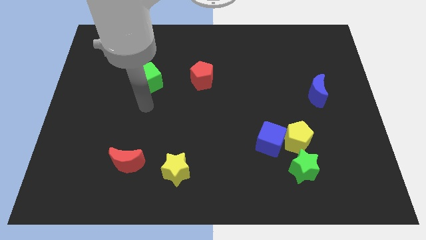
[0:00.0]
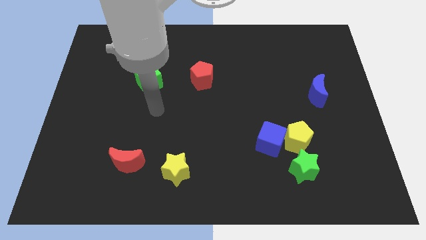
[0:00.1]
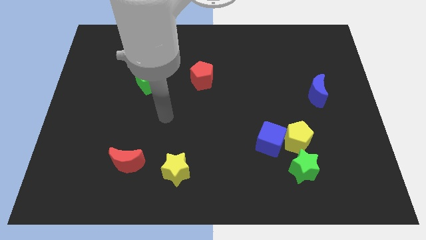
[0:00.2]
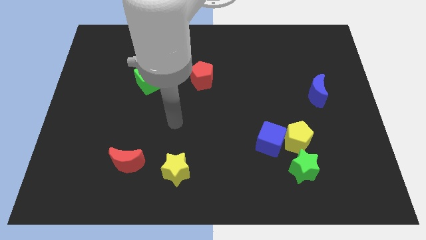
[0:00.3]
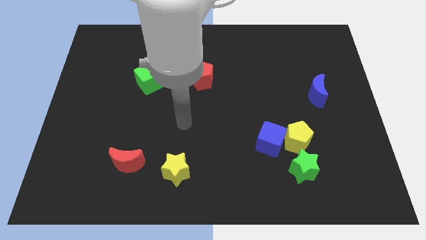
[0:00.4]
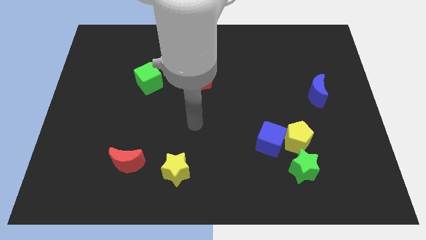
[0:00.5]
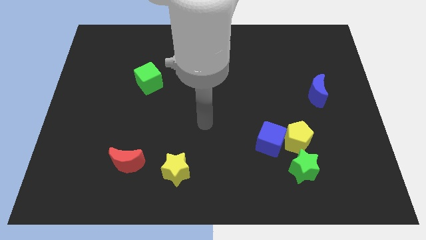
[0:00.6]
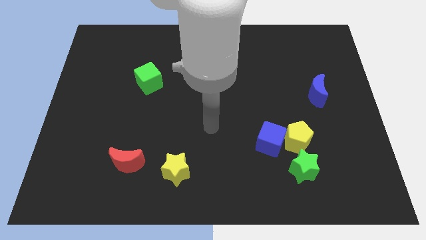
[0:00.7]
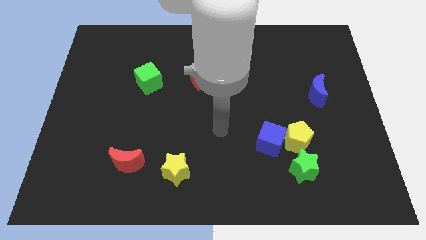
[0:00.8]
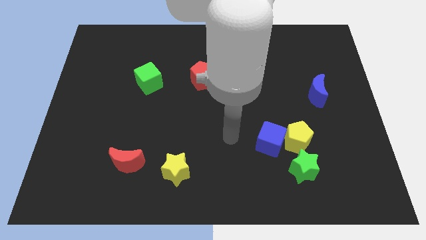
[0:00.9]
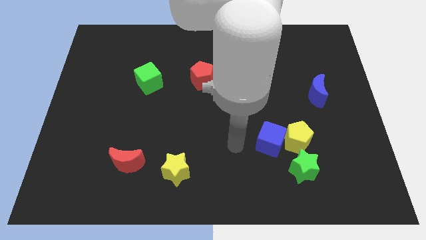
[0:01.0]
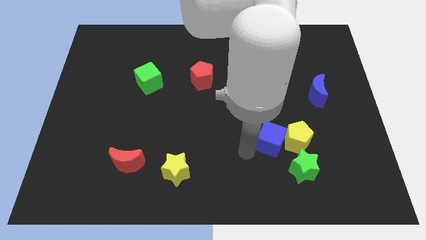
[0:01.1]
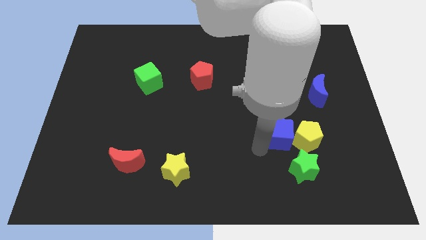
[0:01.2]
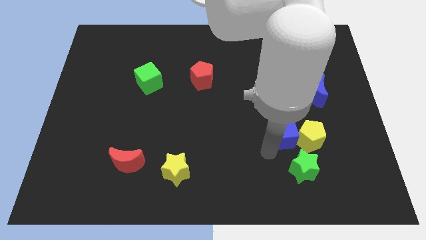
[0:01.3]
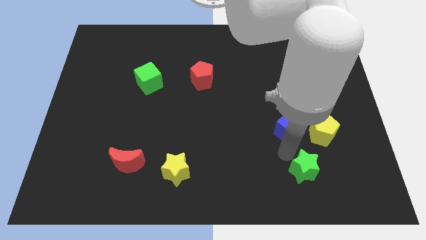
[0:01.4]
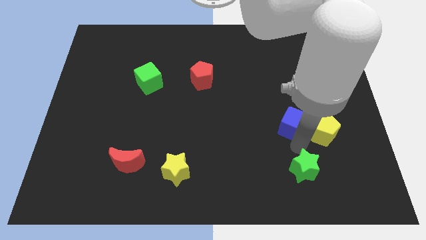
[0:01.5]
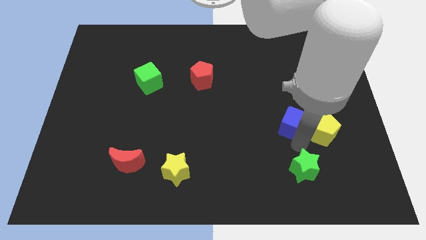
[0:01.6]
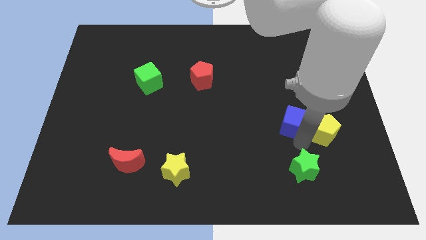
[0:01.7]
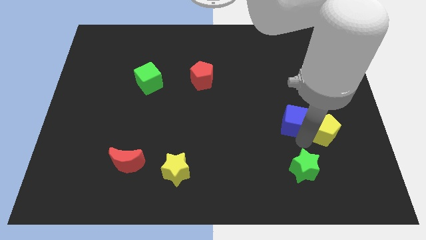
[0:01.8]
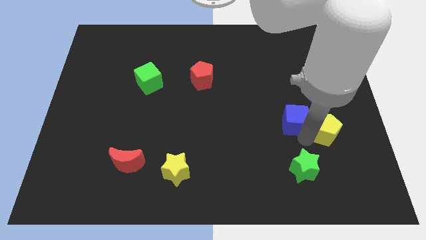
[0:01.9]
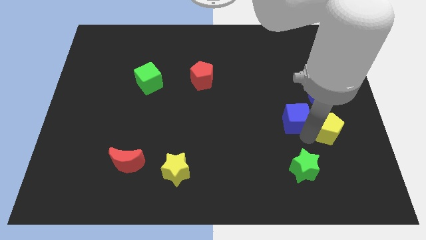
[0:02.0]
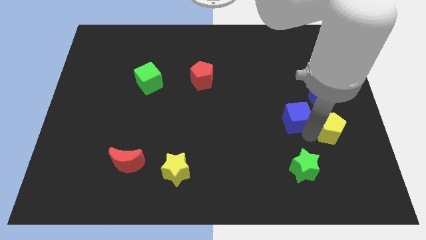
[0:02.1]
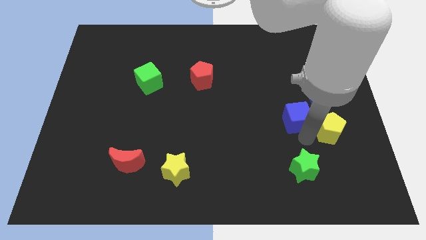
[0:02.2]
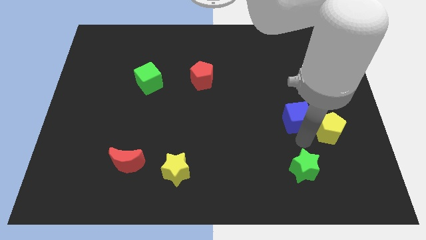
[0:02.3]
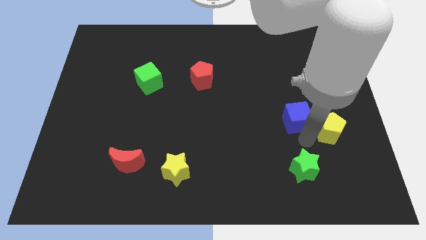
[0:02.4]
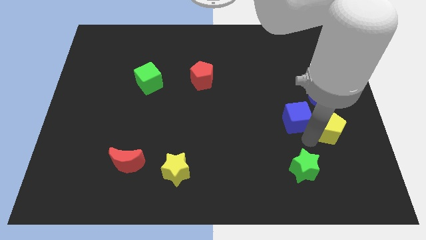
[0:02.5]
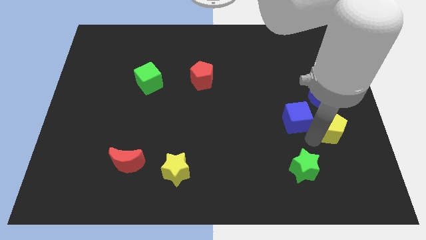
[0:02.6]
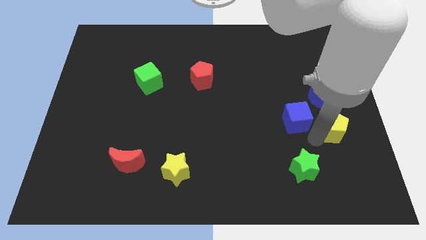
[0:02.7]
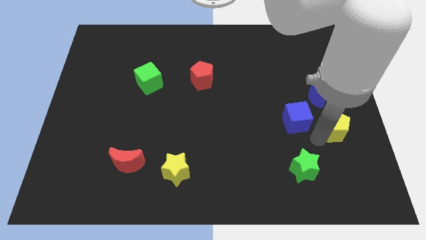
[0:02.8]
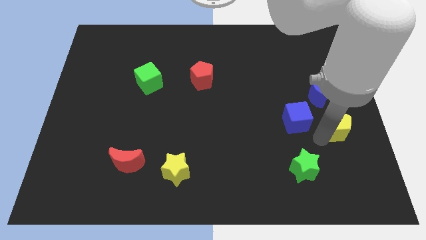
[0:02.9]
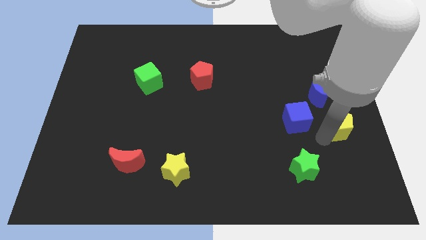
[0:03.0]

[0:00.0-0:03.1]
separate the yellow pentagon from the blue cube and green star

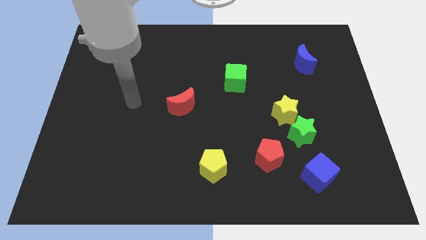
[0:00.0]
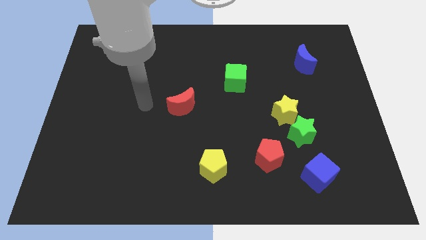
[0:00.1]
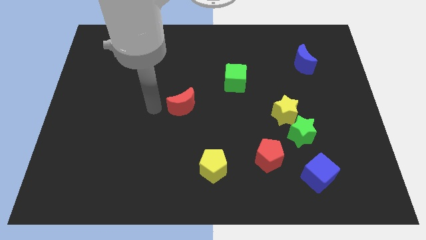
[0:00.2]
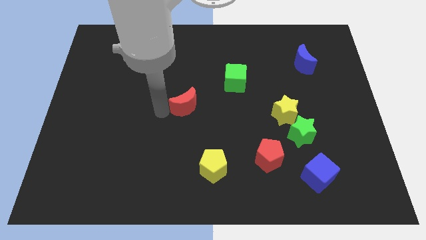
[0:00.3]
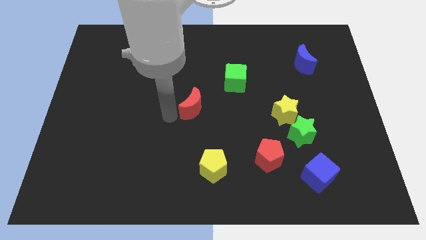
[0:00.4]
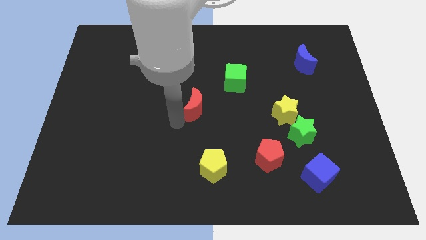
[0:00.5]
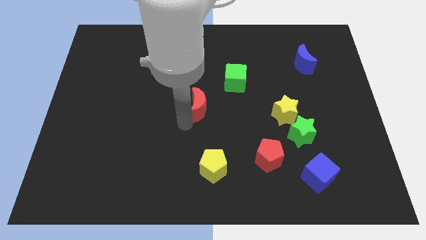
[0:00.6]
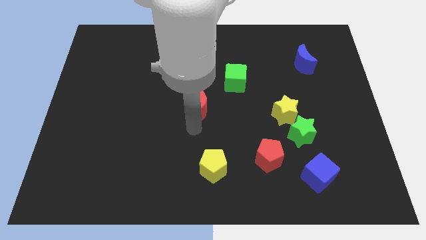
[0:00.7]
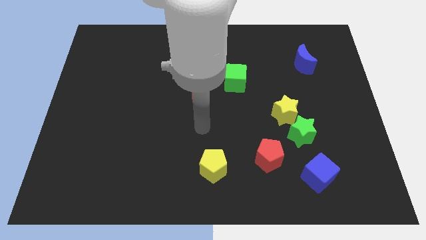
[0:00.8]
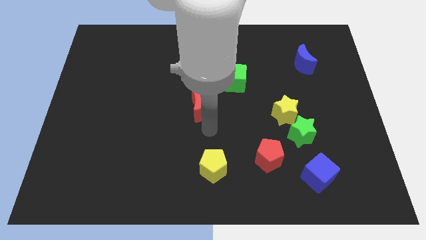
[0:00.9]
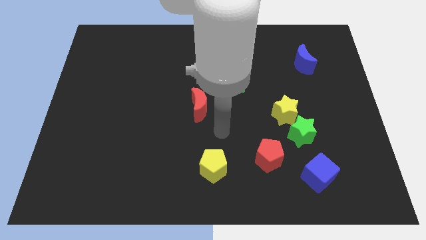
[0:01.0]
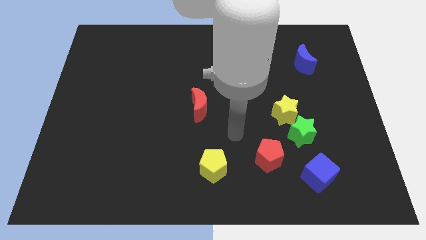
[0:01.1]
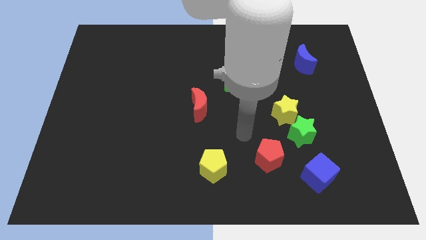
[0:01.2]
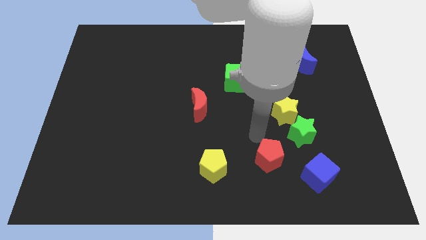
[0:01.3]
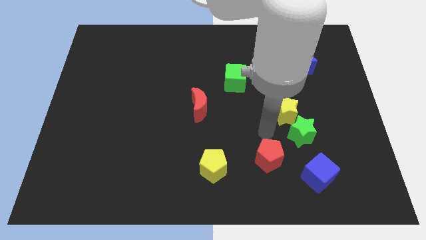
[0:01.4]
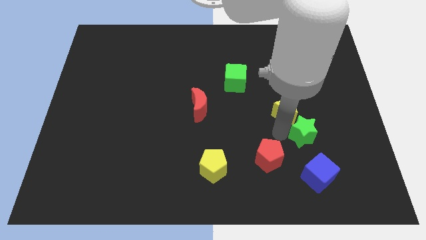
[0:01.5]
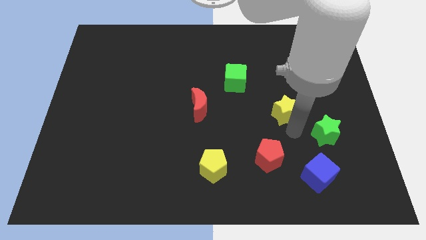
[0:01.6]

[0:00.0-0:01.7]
pull the yellow star apart from the green star

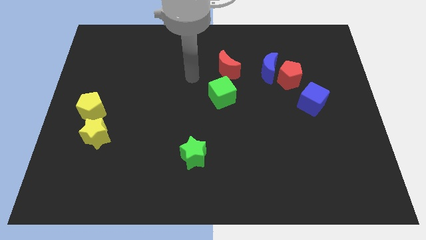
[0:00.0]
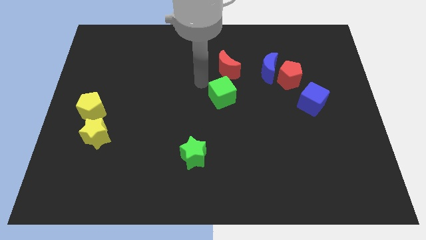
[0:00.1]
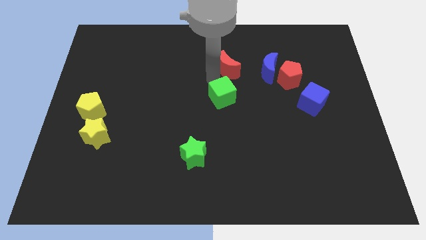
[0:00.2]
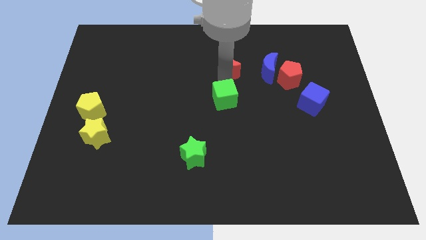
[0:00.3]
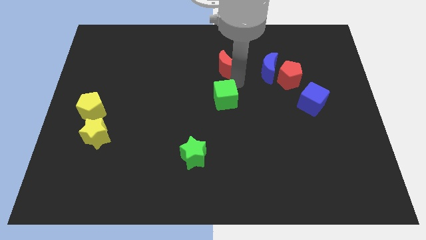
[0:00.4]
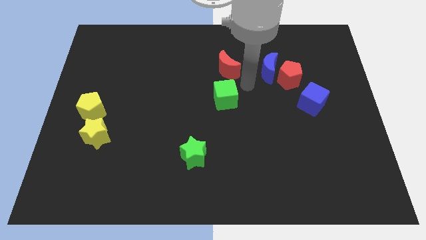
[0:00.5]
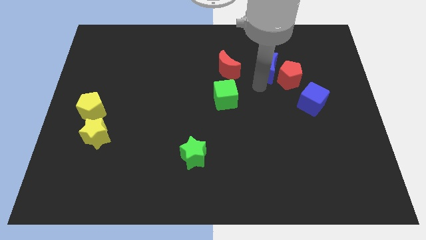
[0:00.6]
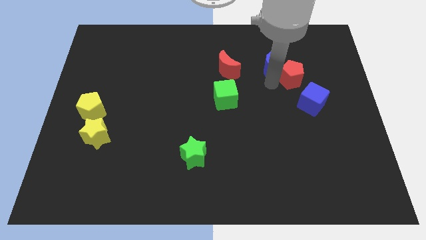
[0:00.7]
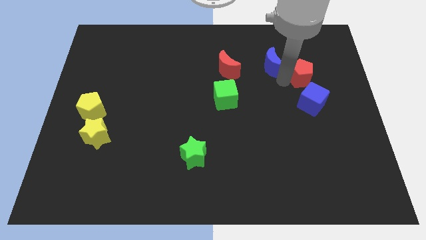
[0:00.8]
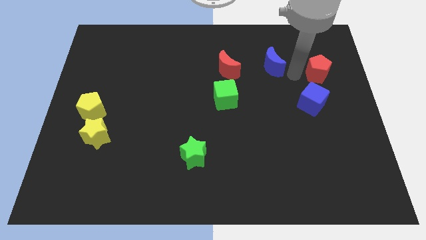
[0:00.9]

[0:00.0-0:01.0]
move the blue moon away from the red pentagon

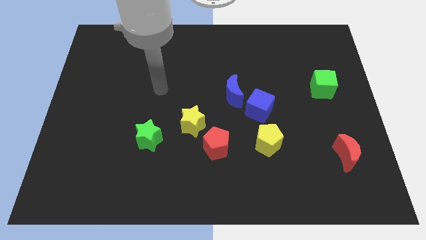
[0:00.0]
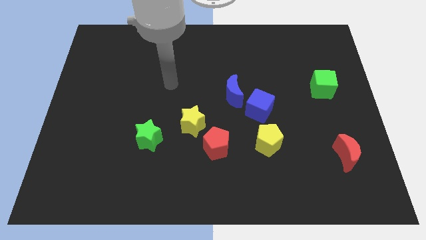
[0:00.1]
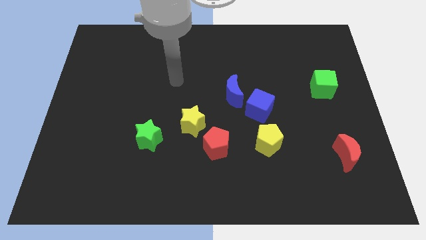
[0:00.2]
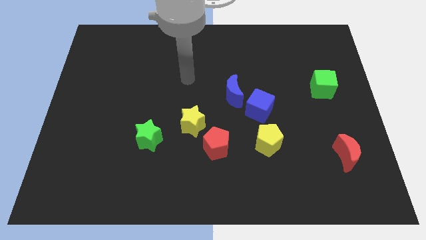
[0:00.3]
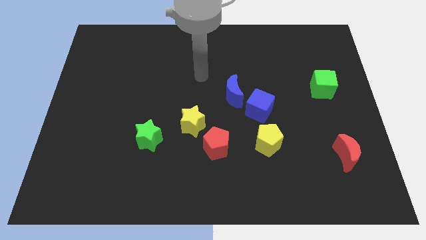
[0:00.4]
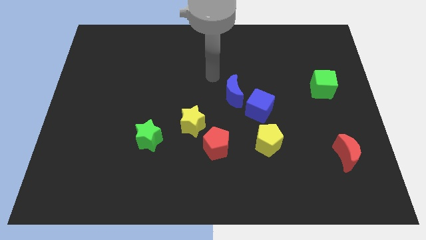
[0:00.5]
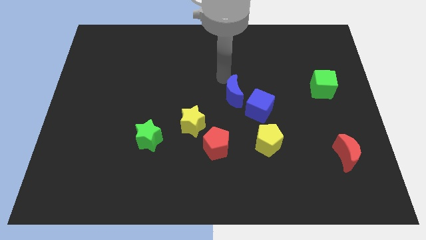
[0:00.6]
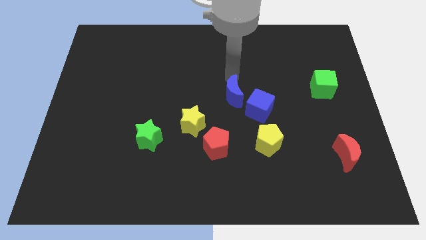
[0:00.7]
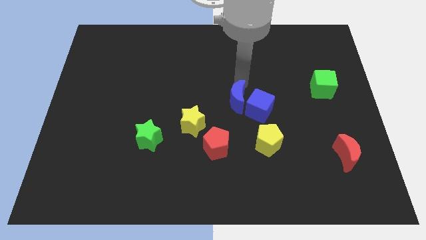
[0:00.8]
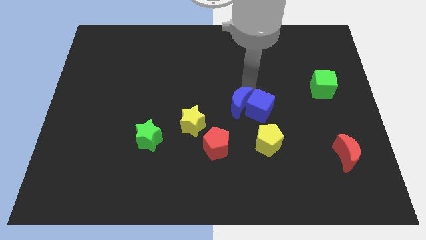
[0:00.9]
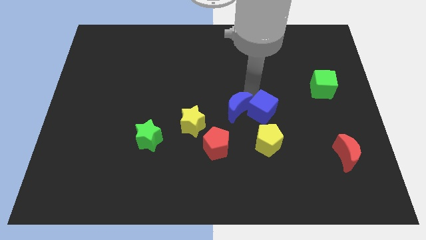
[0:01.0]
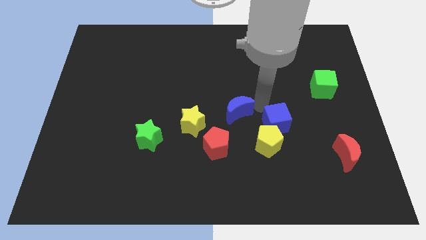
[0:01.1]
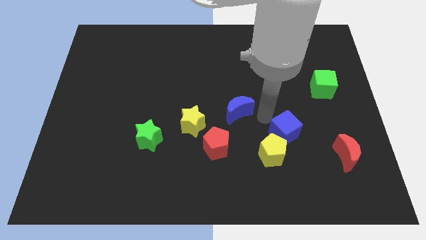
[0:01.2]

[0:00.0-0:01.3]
pull the blue moon apart from the blue cube

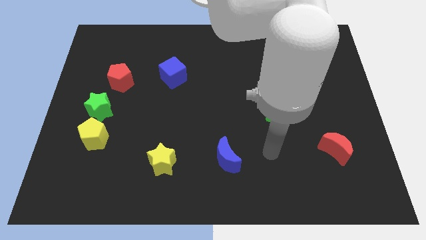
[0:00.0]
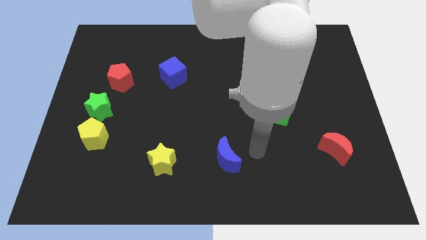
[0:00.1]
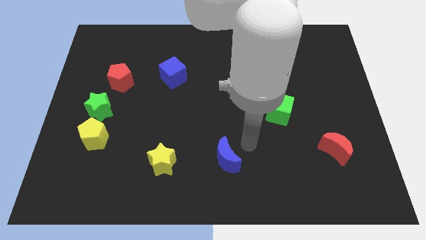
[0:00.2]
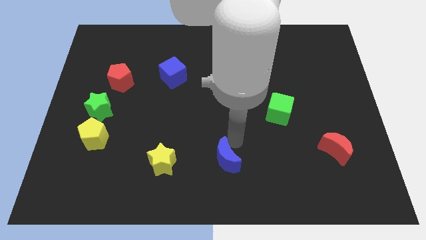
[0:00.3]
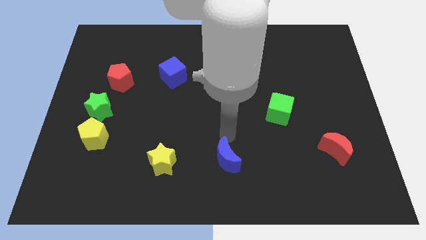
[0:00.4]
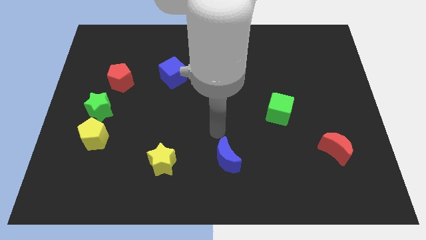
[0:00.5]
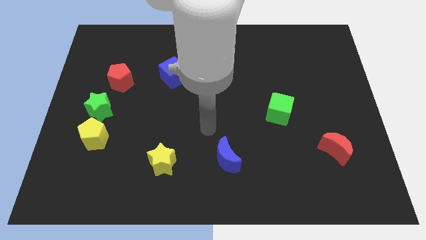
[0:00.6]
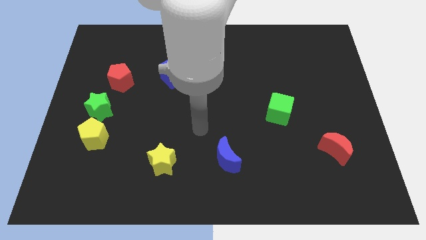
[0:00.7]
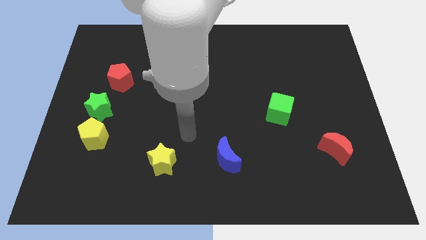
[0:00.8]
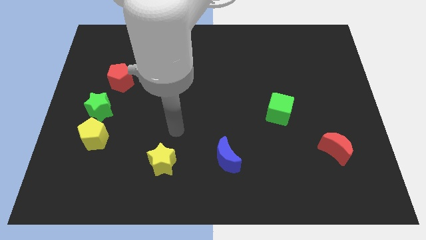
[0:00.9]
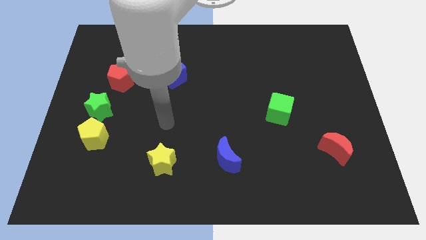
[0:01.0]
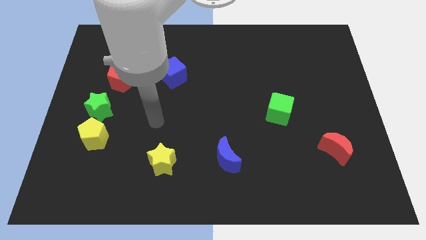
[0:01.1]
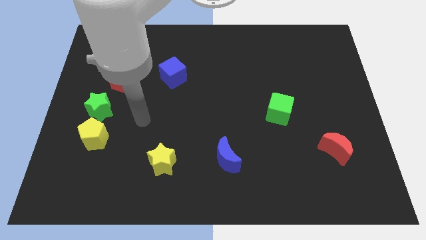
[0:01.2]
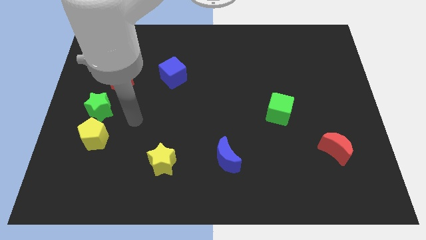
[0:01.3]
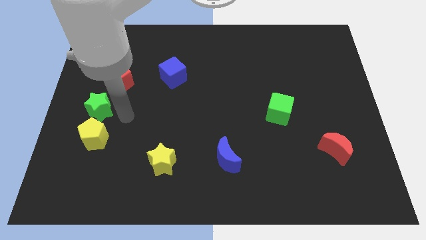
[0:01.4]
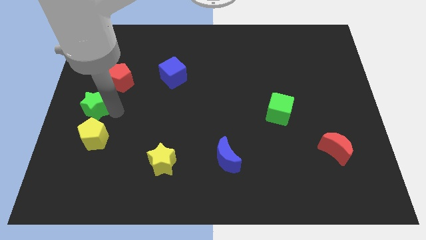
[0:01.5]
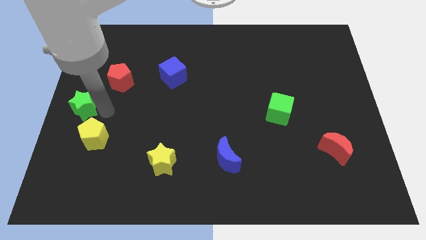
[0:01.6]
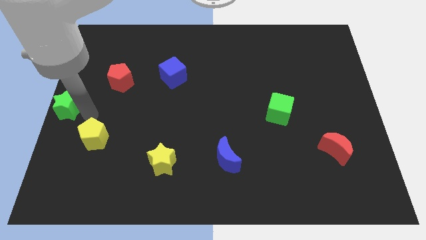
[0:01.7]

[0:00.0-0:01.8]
separate the yellow pentagon from the green star

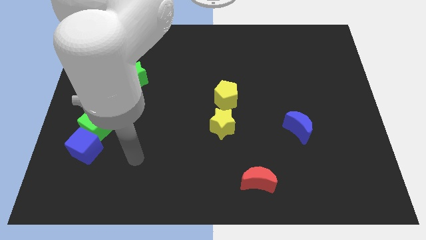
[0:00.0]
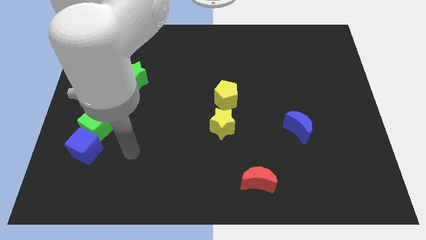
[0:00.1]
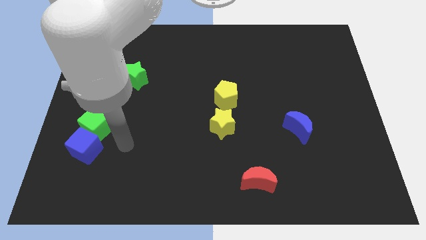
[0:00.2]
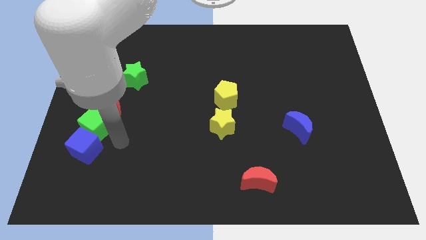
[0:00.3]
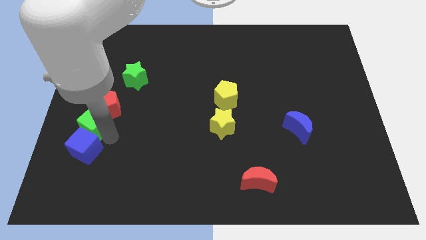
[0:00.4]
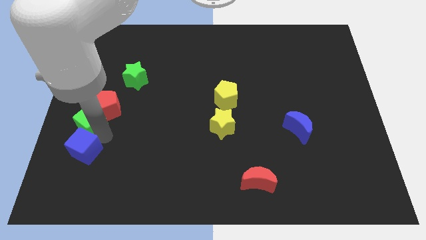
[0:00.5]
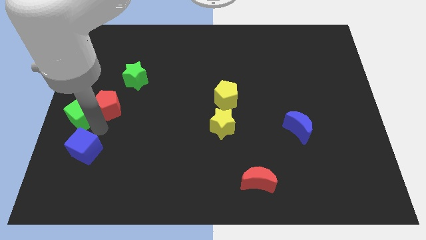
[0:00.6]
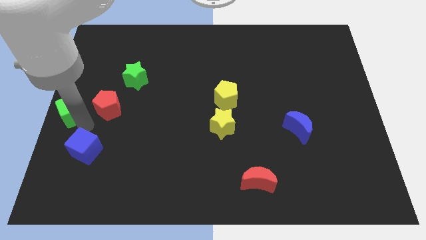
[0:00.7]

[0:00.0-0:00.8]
pull the blue cube apart from the green cube
